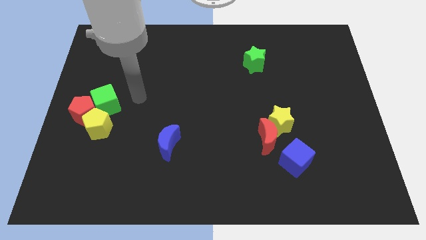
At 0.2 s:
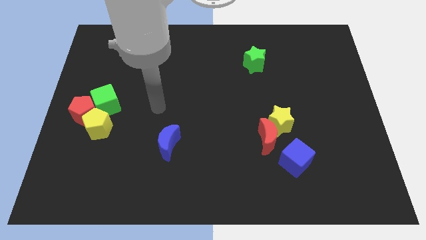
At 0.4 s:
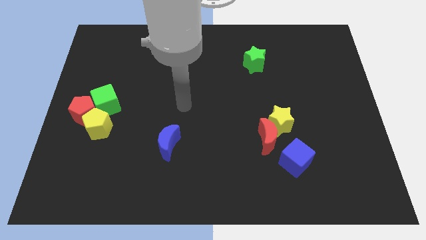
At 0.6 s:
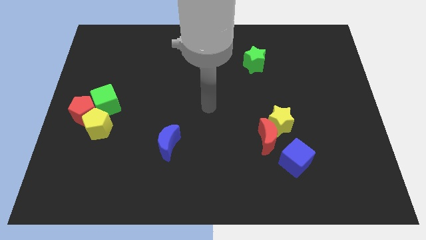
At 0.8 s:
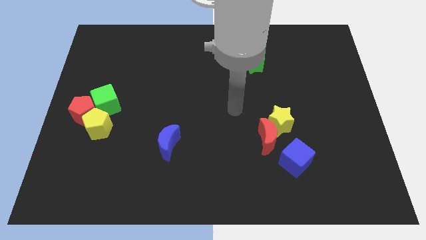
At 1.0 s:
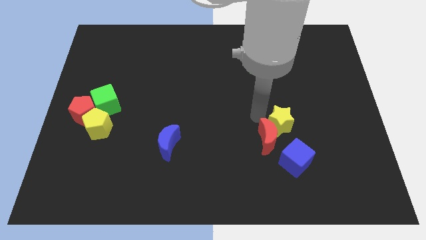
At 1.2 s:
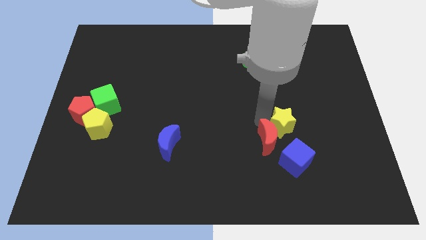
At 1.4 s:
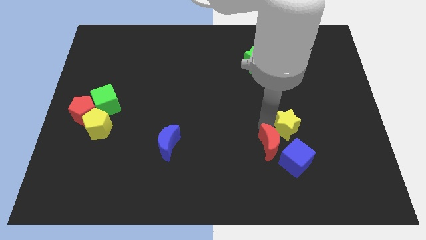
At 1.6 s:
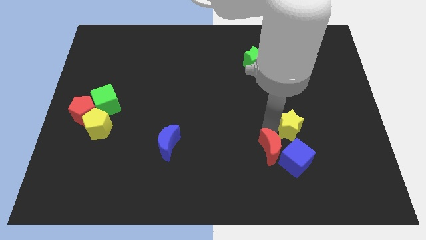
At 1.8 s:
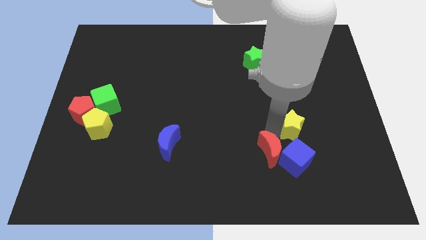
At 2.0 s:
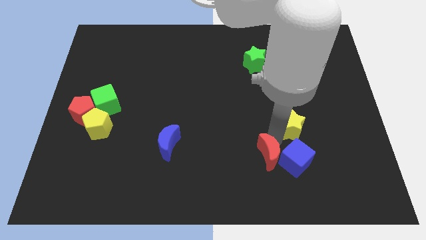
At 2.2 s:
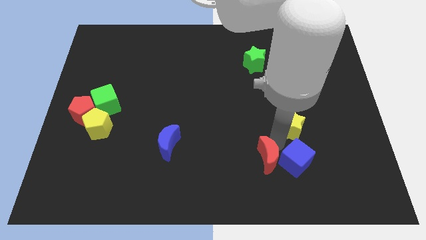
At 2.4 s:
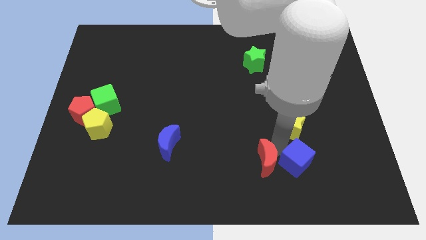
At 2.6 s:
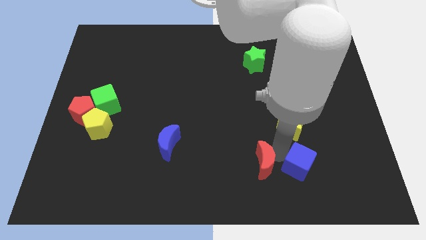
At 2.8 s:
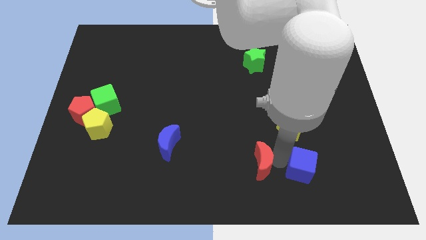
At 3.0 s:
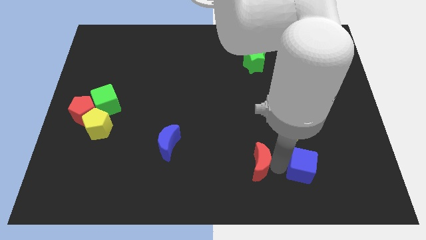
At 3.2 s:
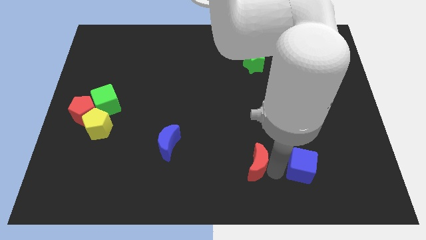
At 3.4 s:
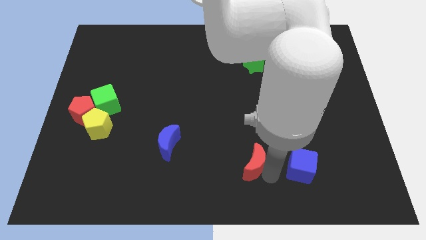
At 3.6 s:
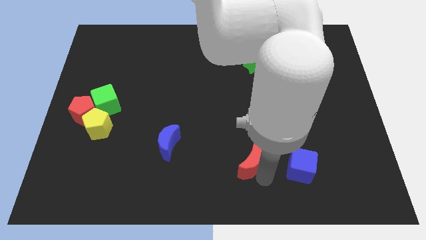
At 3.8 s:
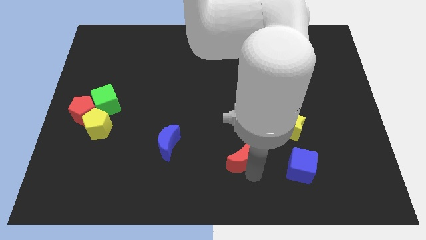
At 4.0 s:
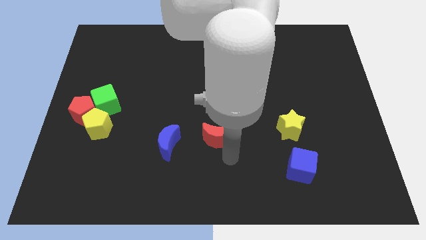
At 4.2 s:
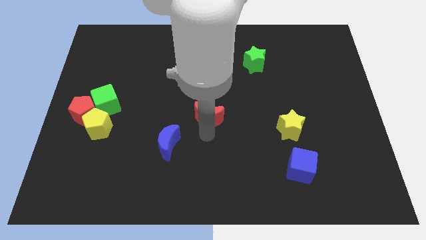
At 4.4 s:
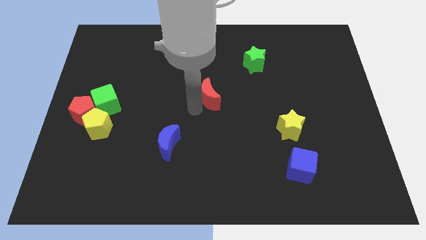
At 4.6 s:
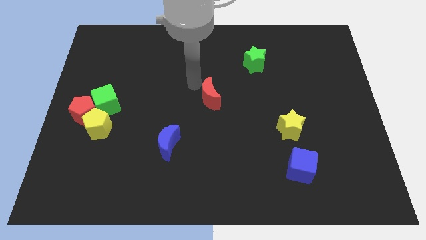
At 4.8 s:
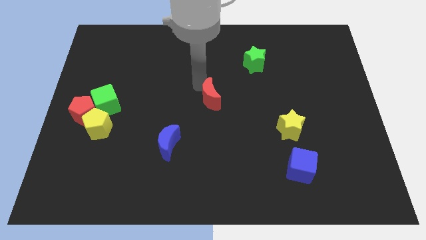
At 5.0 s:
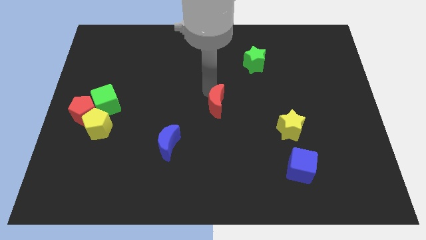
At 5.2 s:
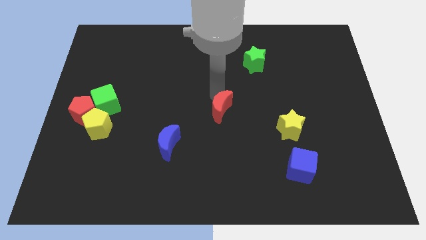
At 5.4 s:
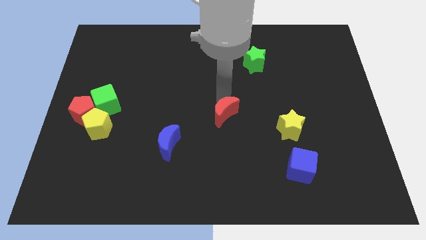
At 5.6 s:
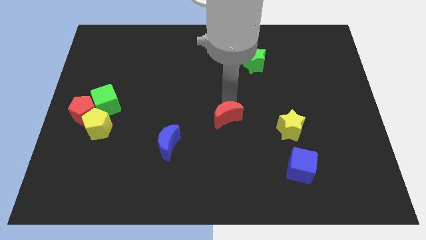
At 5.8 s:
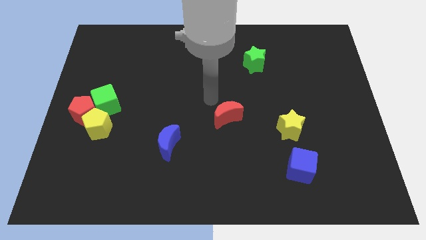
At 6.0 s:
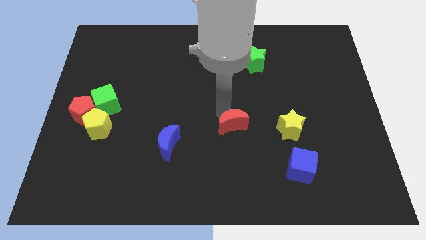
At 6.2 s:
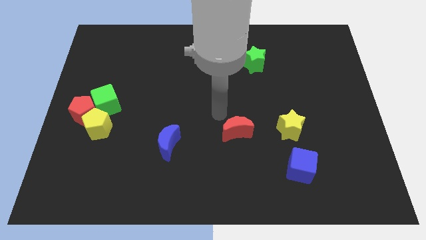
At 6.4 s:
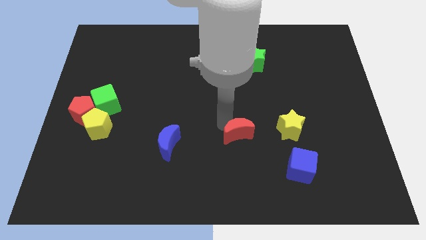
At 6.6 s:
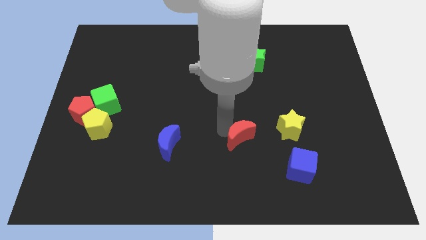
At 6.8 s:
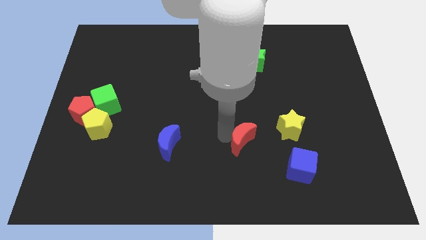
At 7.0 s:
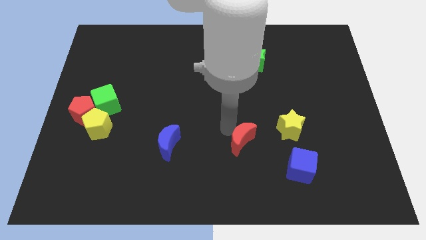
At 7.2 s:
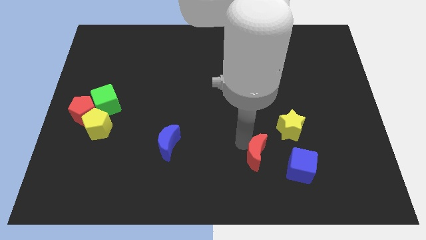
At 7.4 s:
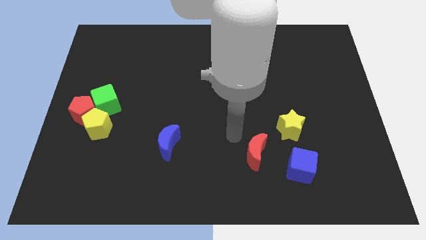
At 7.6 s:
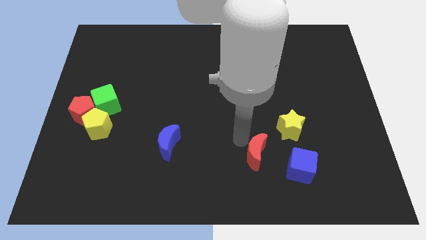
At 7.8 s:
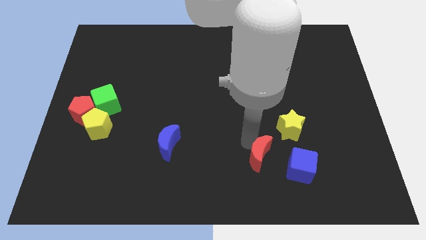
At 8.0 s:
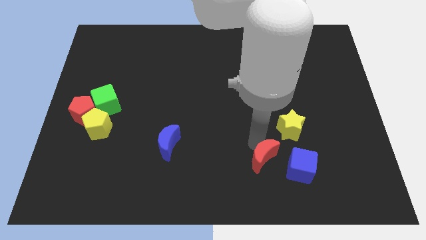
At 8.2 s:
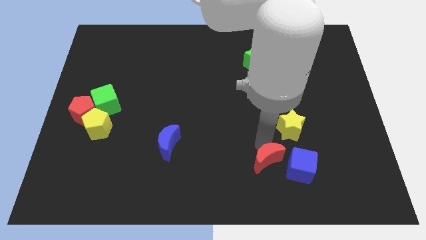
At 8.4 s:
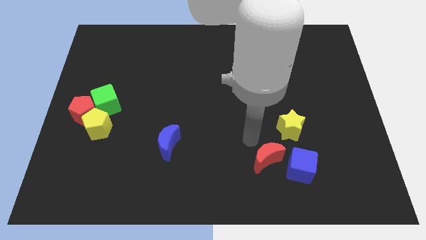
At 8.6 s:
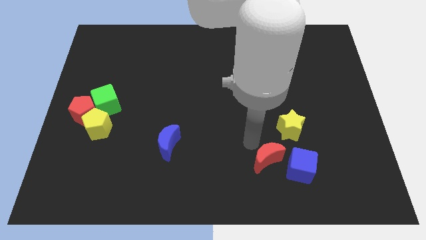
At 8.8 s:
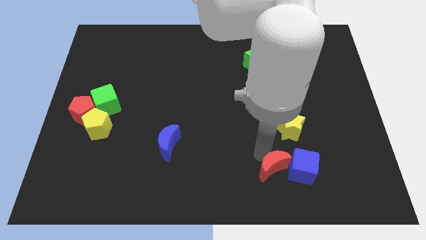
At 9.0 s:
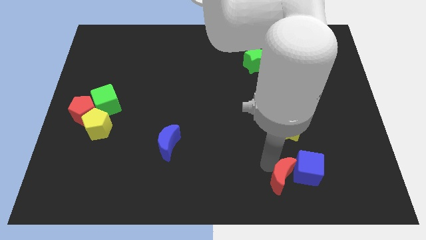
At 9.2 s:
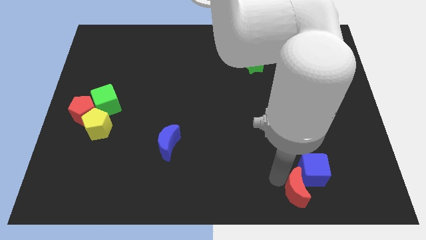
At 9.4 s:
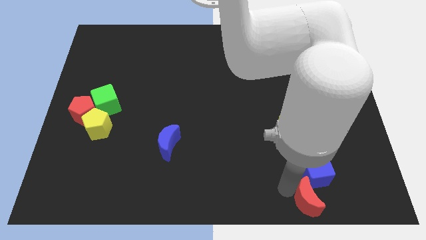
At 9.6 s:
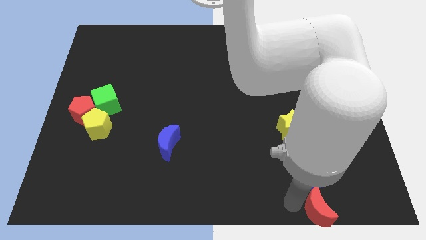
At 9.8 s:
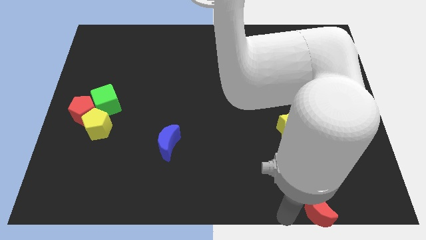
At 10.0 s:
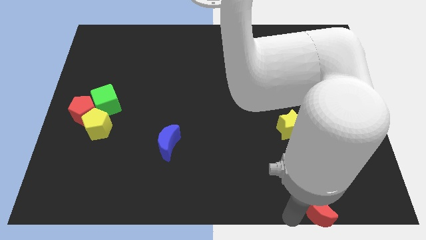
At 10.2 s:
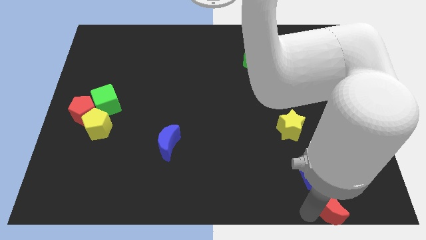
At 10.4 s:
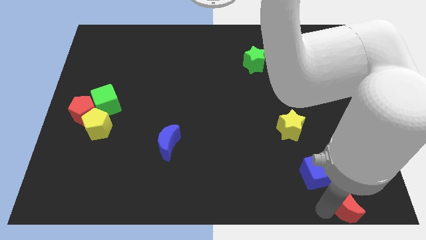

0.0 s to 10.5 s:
slide the red moon to the bottom right corner

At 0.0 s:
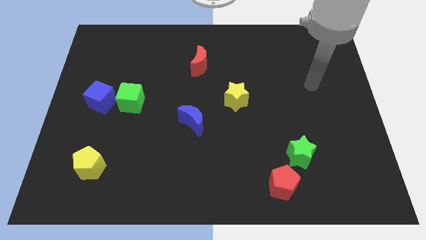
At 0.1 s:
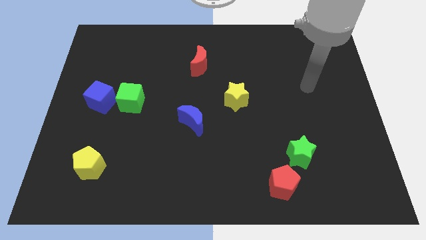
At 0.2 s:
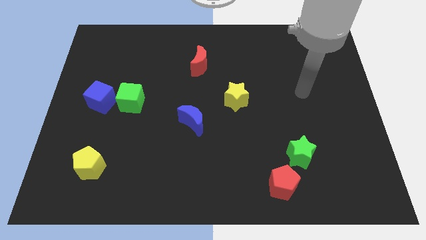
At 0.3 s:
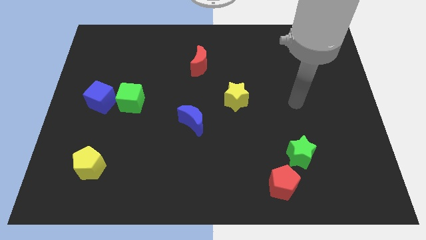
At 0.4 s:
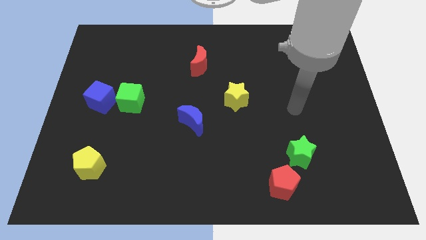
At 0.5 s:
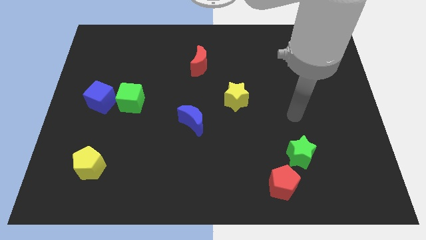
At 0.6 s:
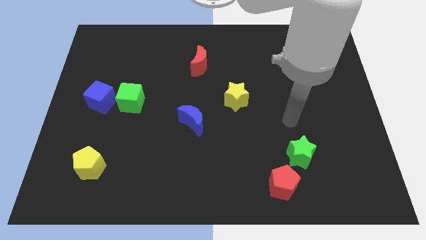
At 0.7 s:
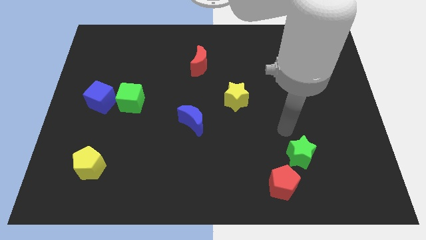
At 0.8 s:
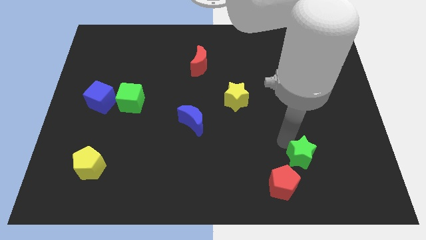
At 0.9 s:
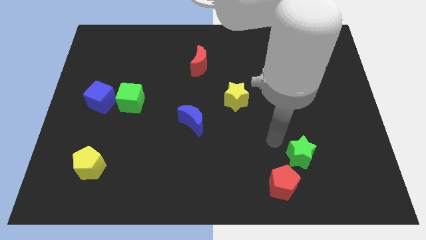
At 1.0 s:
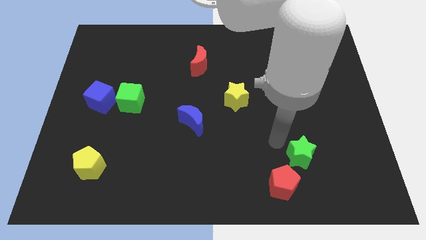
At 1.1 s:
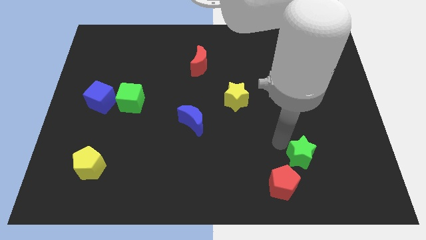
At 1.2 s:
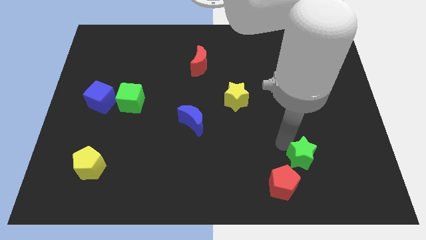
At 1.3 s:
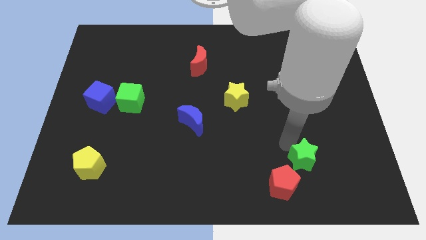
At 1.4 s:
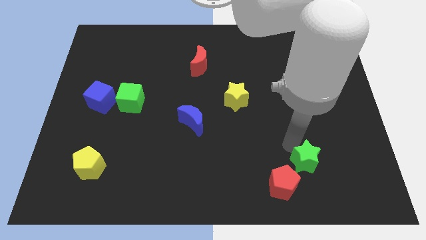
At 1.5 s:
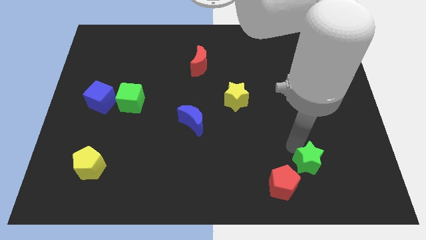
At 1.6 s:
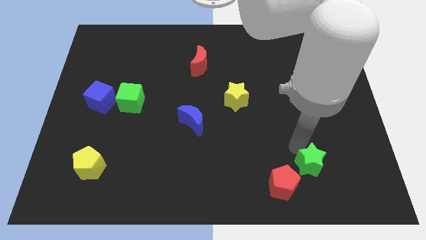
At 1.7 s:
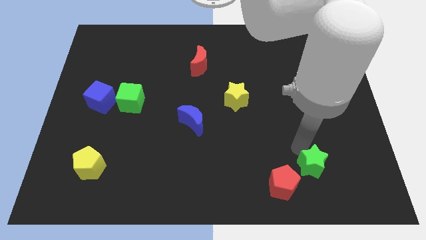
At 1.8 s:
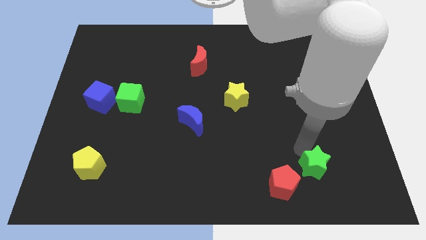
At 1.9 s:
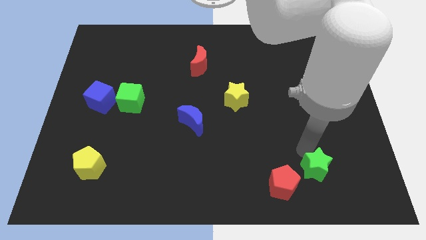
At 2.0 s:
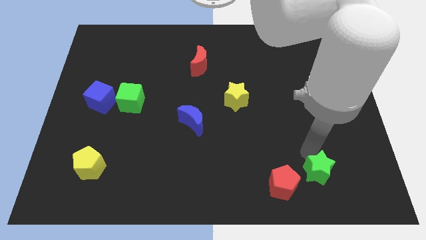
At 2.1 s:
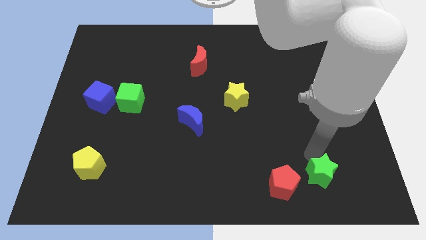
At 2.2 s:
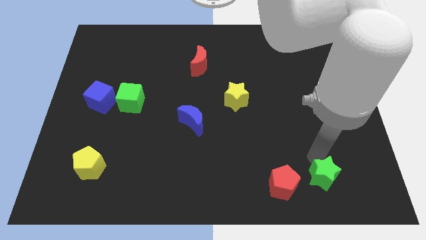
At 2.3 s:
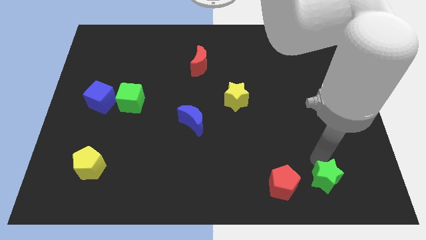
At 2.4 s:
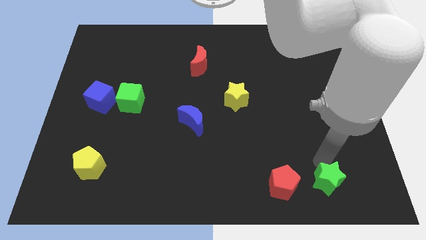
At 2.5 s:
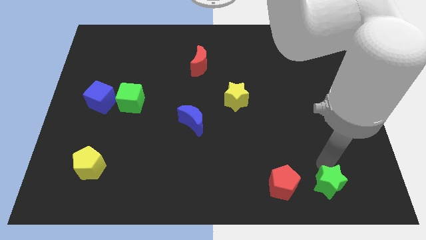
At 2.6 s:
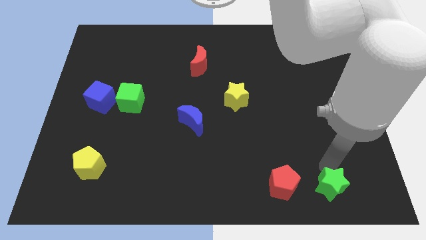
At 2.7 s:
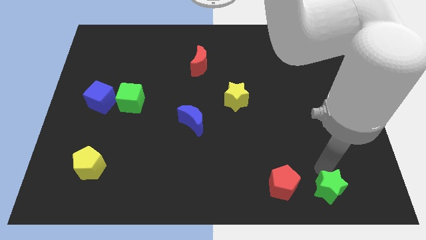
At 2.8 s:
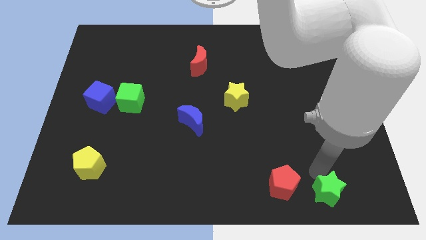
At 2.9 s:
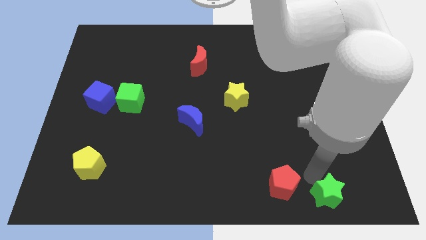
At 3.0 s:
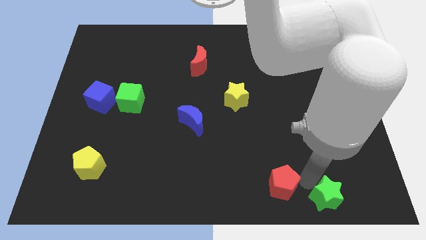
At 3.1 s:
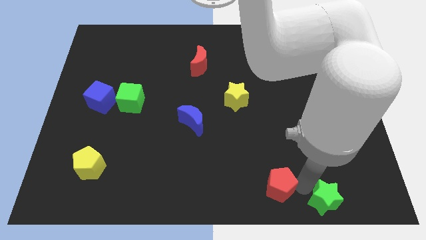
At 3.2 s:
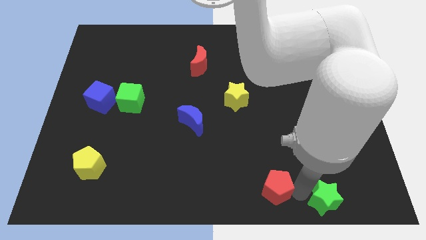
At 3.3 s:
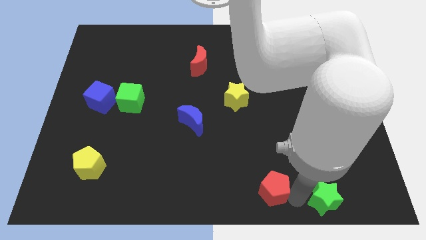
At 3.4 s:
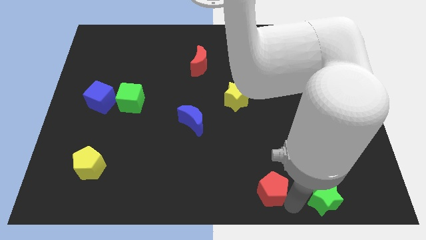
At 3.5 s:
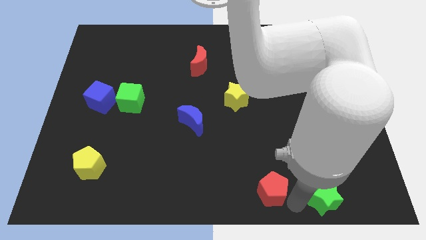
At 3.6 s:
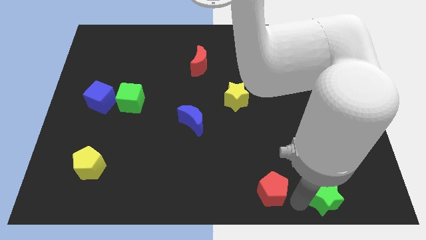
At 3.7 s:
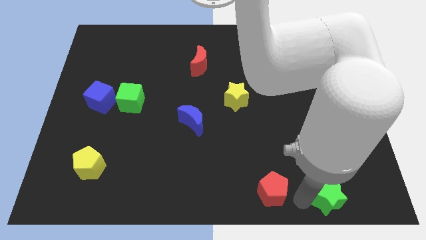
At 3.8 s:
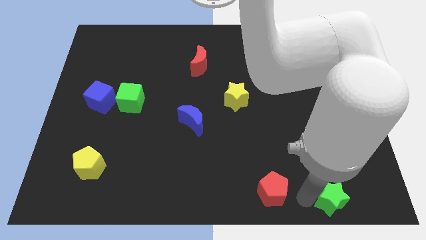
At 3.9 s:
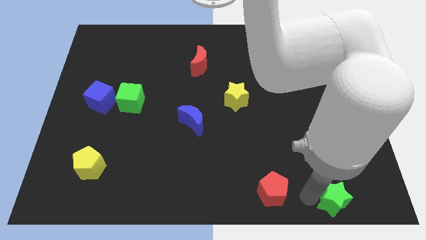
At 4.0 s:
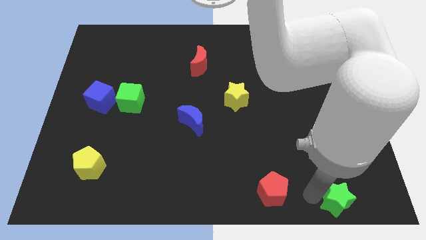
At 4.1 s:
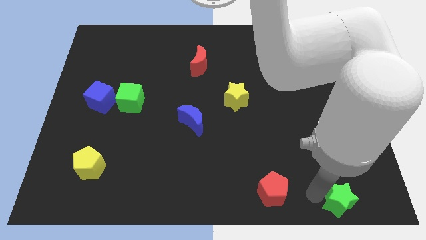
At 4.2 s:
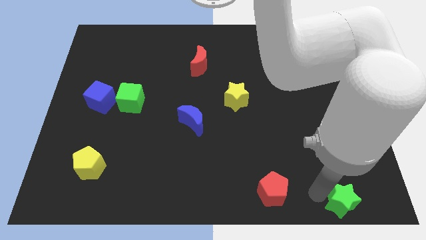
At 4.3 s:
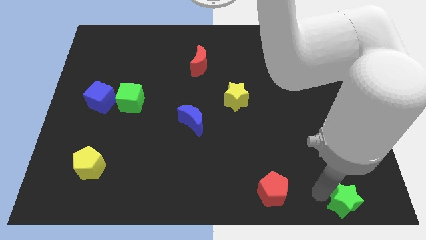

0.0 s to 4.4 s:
slide the green star to the lower right corner
